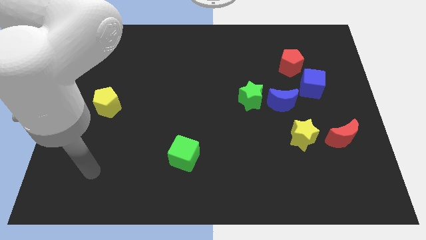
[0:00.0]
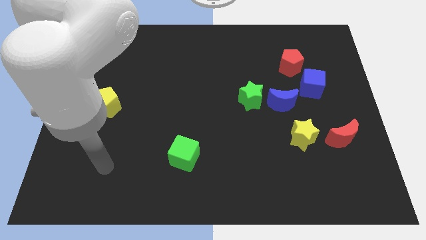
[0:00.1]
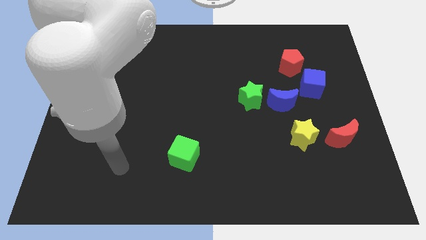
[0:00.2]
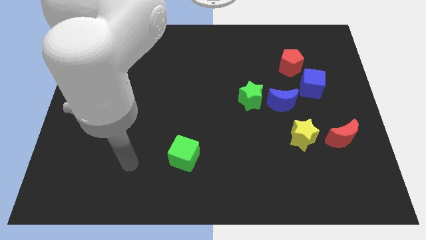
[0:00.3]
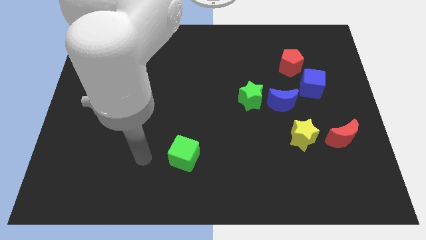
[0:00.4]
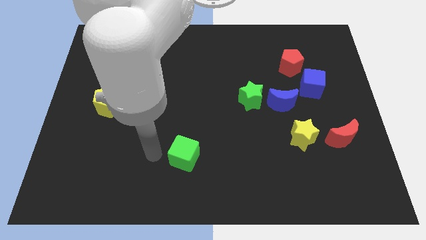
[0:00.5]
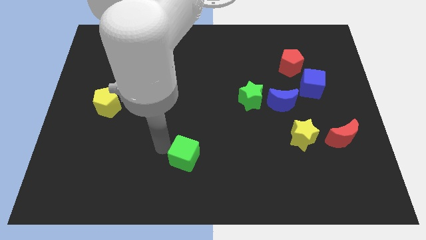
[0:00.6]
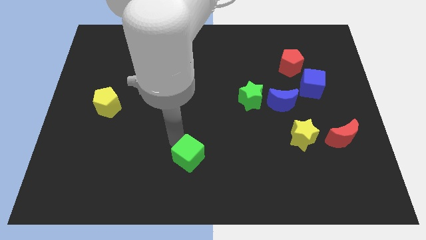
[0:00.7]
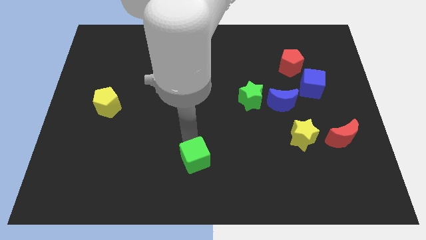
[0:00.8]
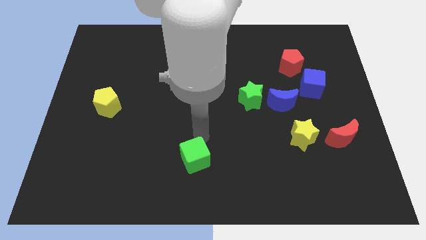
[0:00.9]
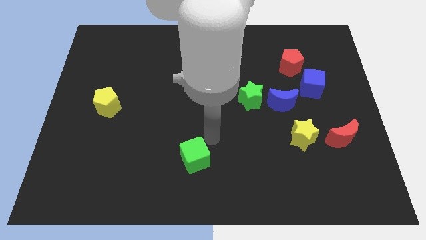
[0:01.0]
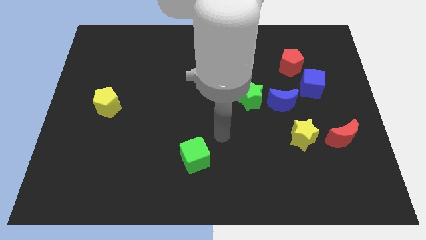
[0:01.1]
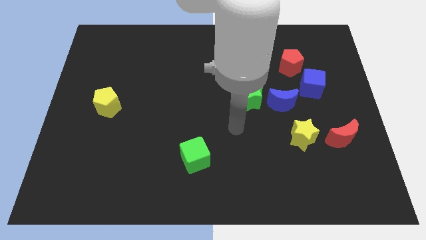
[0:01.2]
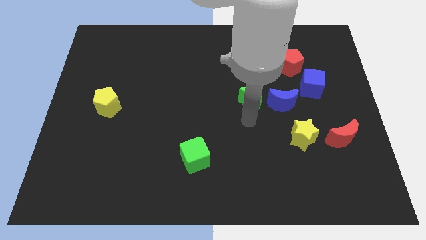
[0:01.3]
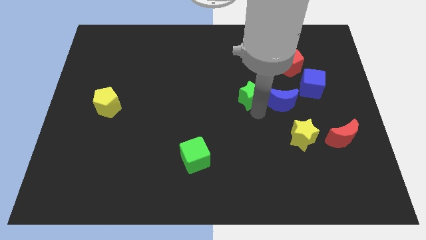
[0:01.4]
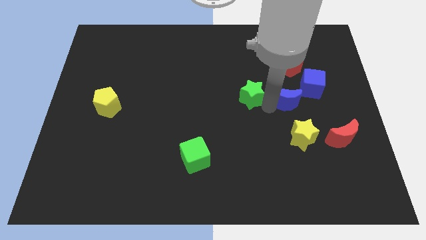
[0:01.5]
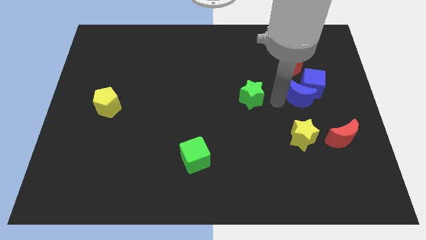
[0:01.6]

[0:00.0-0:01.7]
move the green star away from the blue moon

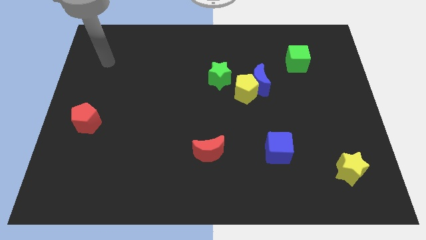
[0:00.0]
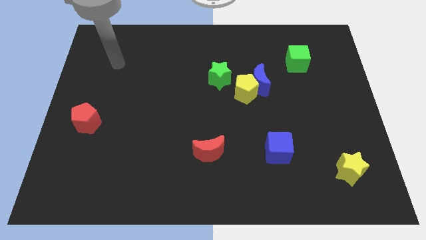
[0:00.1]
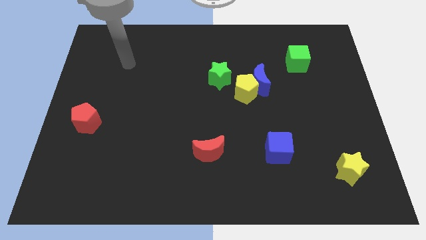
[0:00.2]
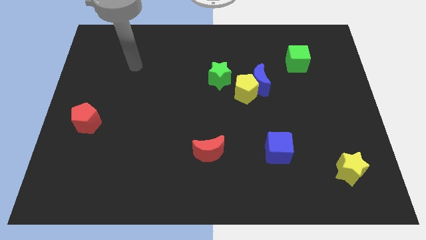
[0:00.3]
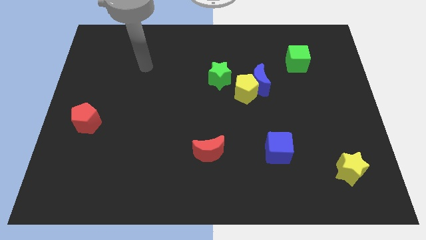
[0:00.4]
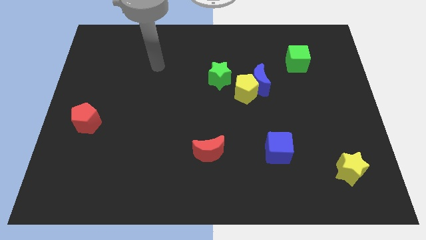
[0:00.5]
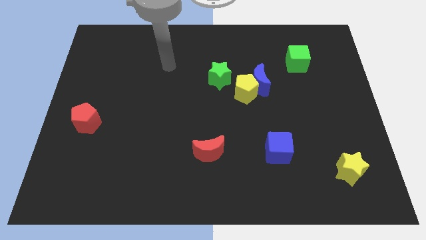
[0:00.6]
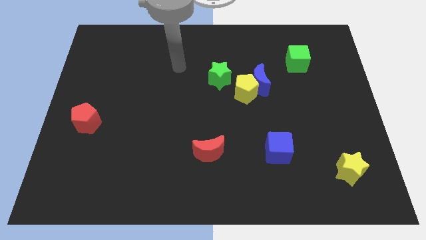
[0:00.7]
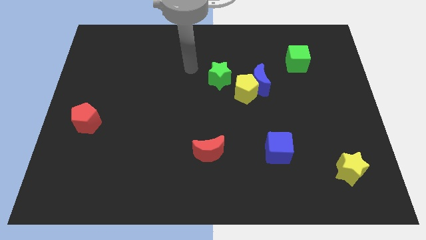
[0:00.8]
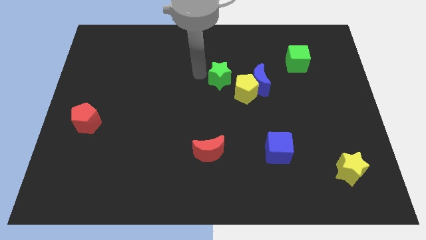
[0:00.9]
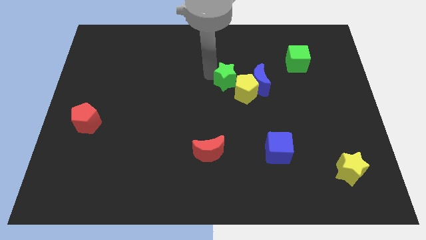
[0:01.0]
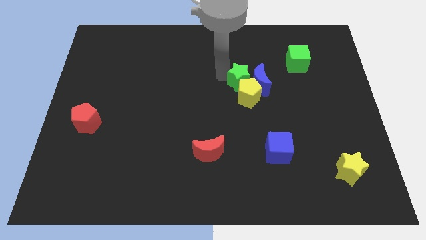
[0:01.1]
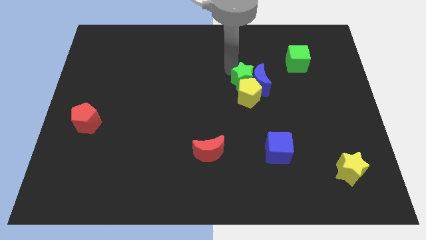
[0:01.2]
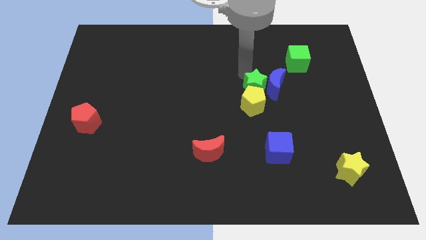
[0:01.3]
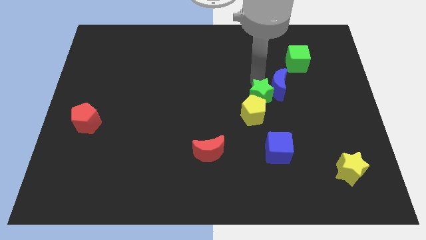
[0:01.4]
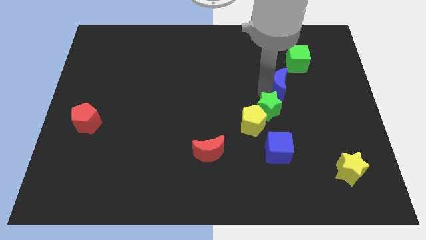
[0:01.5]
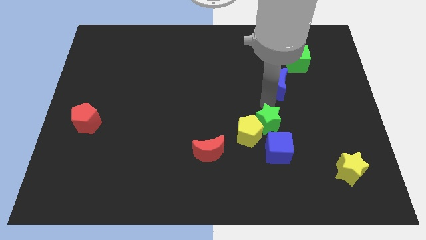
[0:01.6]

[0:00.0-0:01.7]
separate the yellow pentagon from the blue moon and green star

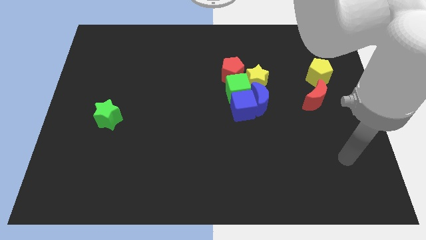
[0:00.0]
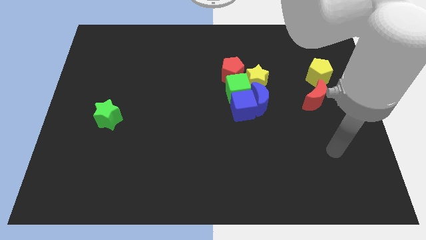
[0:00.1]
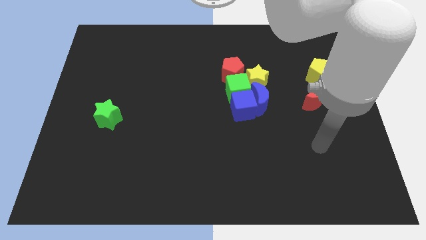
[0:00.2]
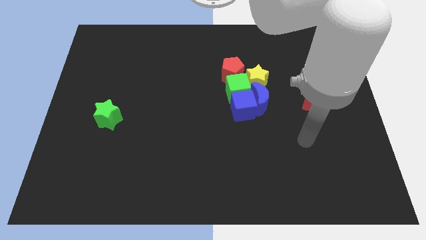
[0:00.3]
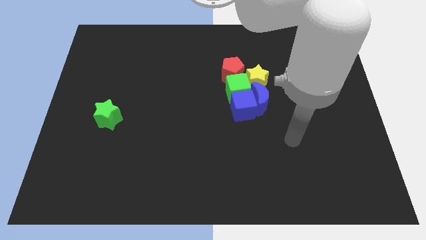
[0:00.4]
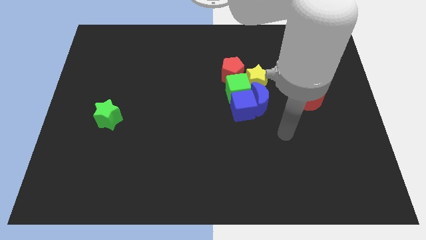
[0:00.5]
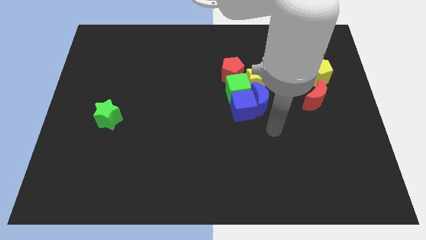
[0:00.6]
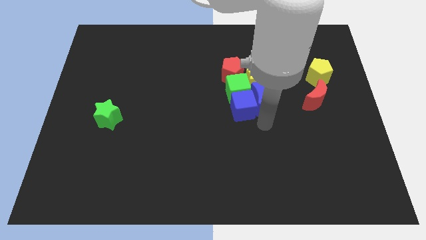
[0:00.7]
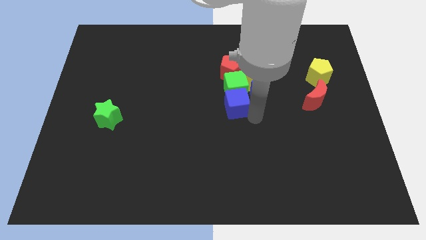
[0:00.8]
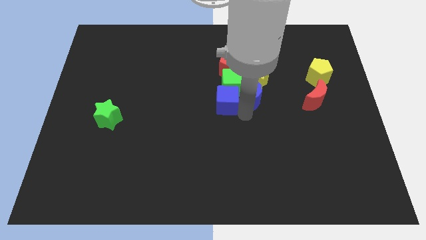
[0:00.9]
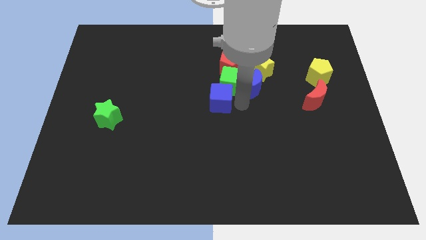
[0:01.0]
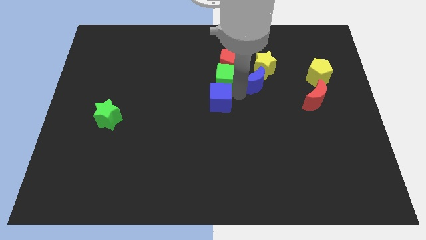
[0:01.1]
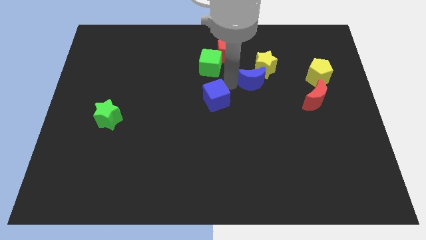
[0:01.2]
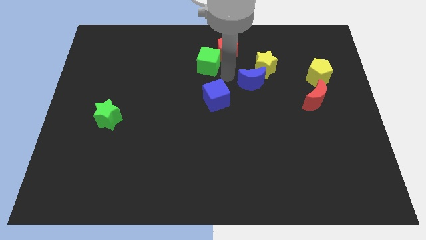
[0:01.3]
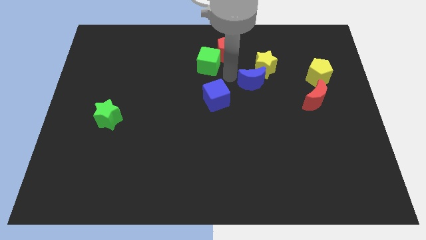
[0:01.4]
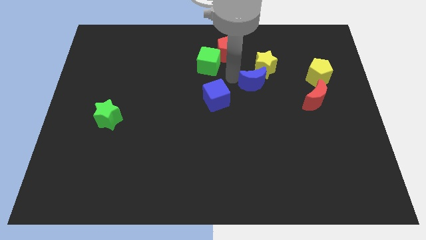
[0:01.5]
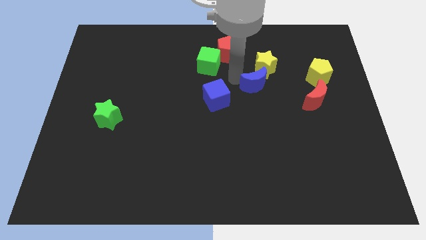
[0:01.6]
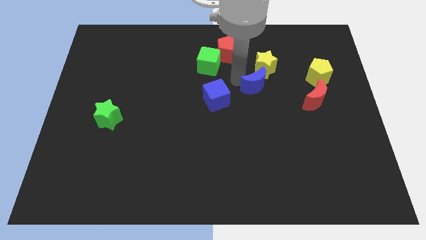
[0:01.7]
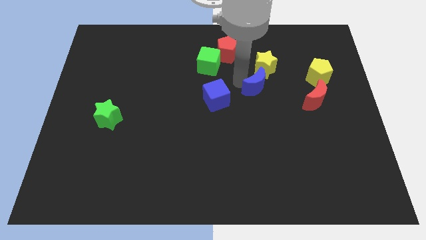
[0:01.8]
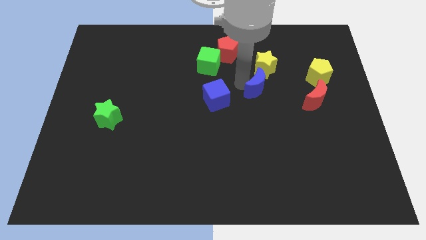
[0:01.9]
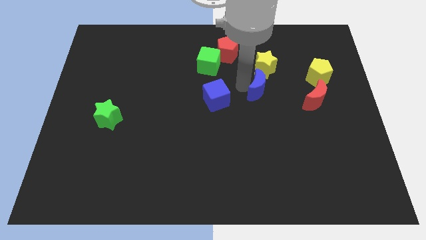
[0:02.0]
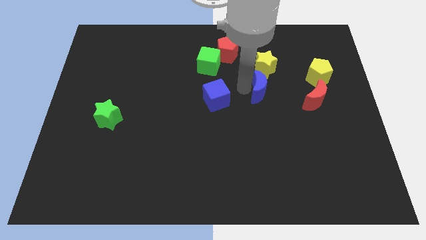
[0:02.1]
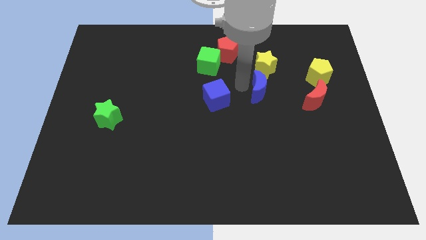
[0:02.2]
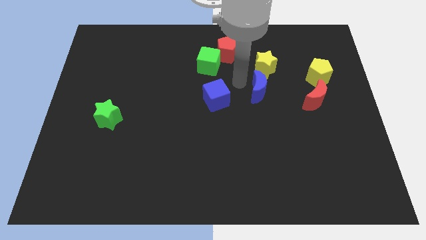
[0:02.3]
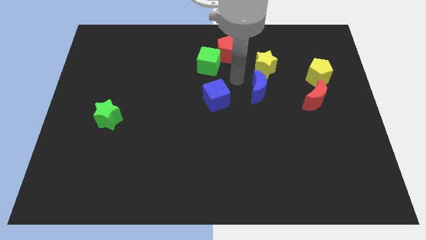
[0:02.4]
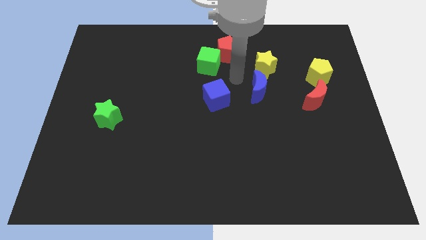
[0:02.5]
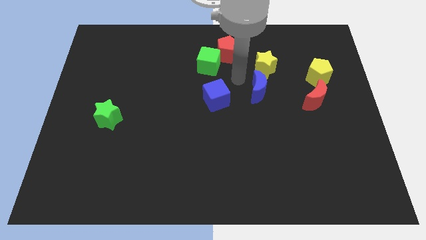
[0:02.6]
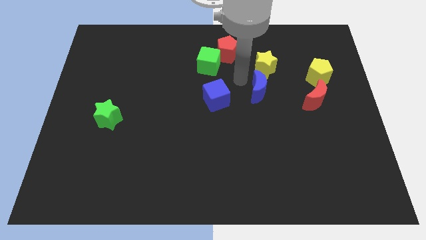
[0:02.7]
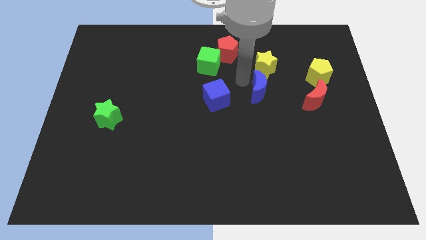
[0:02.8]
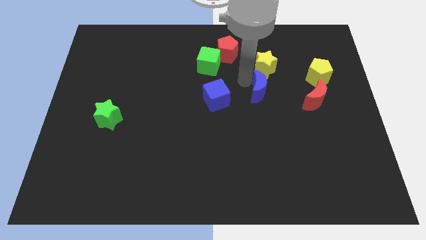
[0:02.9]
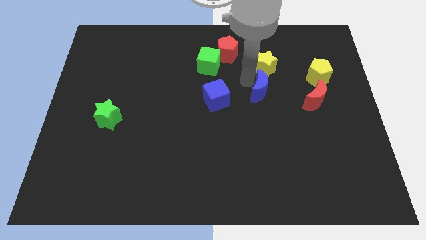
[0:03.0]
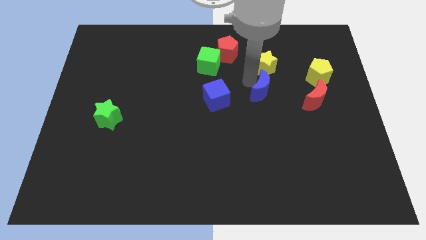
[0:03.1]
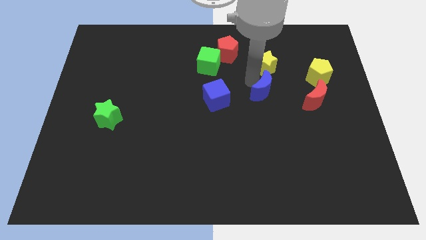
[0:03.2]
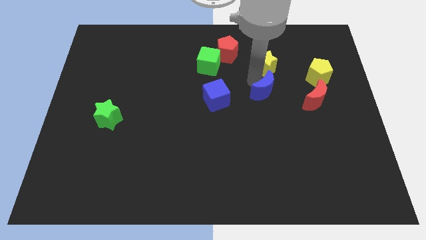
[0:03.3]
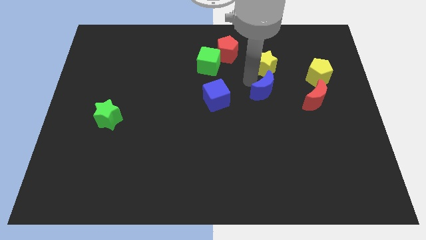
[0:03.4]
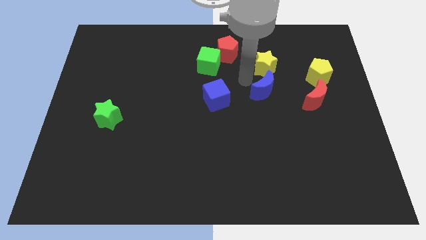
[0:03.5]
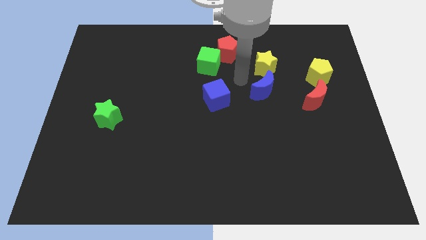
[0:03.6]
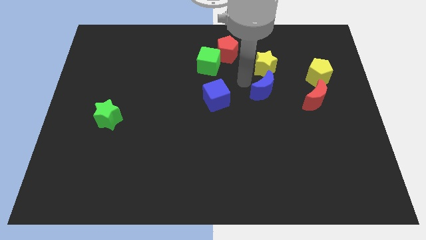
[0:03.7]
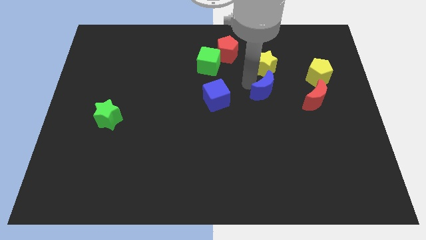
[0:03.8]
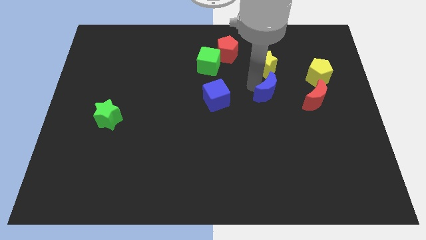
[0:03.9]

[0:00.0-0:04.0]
pull the blue moon apart from the clump

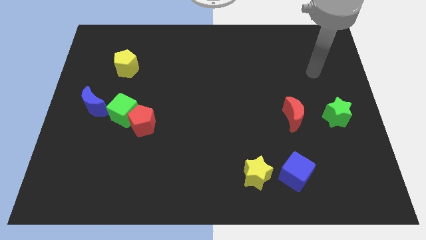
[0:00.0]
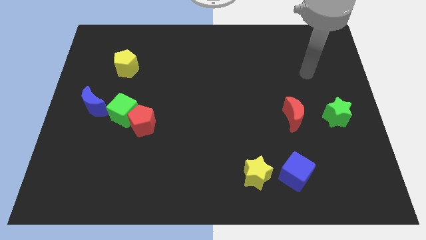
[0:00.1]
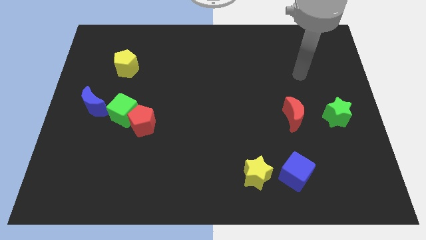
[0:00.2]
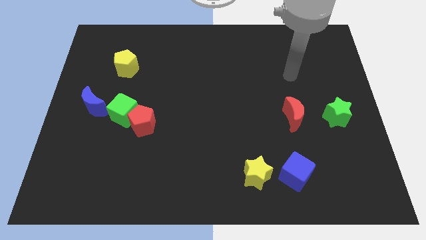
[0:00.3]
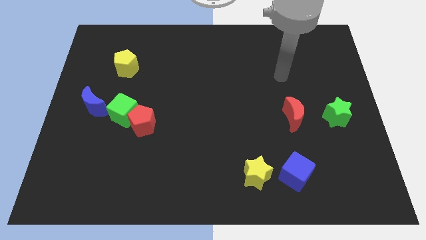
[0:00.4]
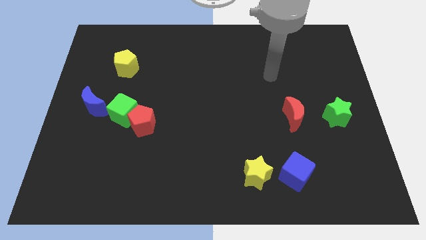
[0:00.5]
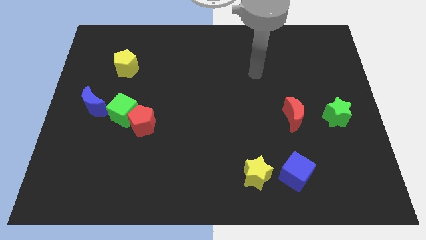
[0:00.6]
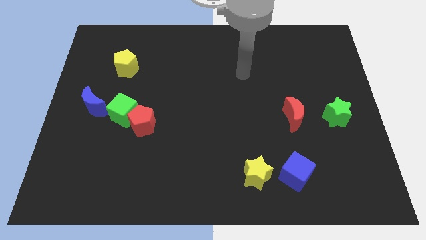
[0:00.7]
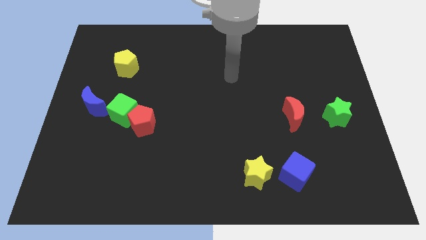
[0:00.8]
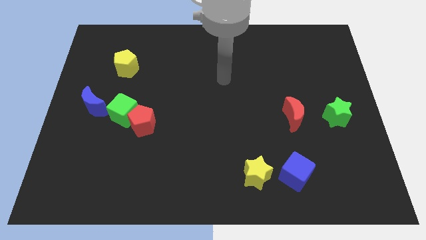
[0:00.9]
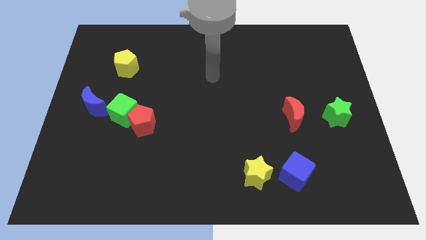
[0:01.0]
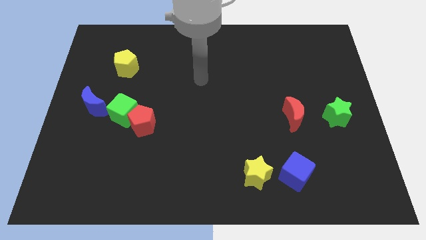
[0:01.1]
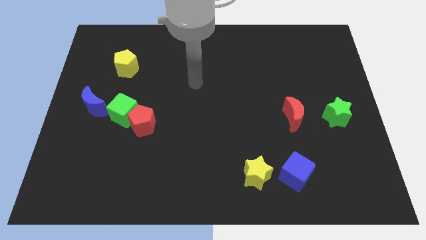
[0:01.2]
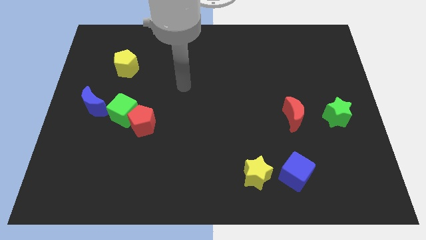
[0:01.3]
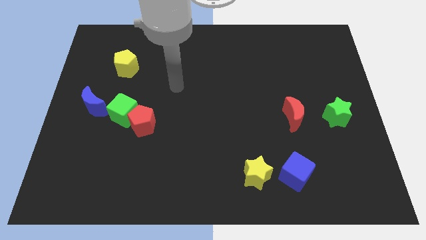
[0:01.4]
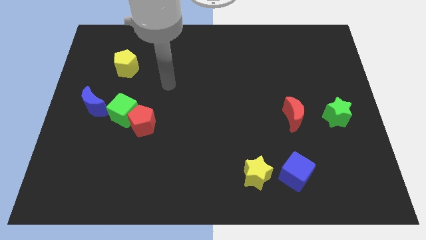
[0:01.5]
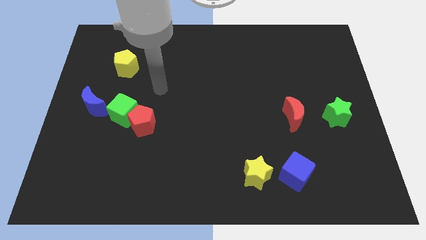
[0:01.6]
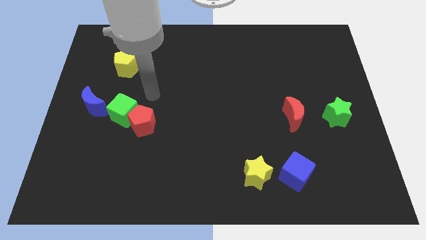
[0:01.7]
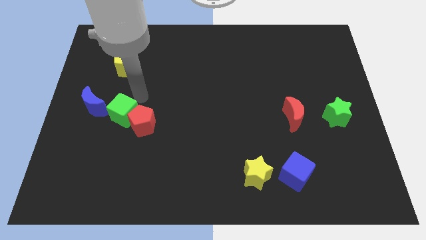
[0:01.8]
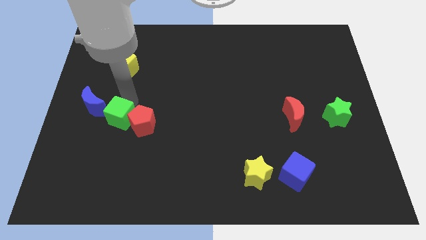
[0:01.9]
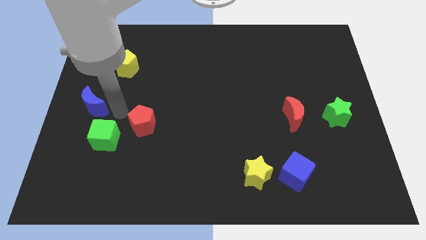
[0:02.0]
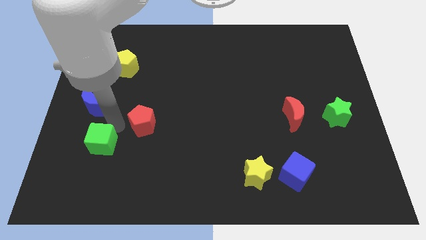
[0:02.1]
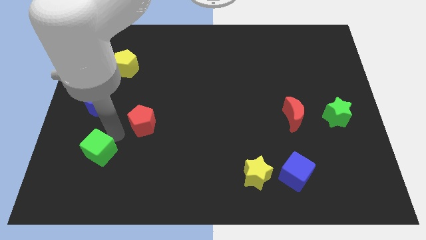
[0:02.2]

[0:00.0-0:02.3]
separate the red pentagon from the green cube
